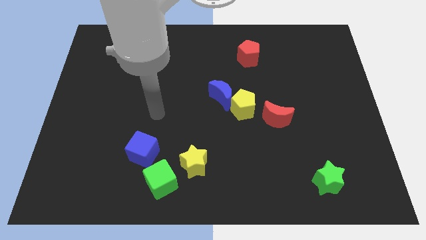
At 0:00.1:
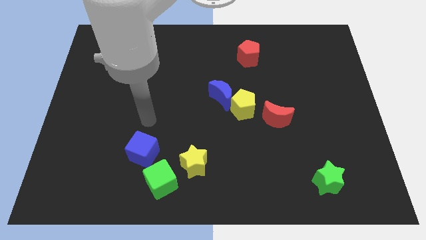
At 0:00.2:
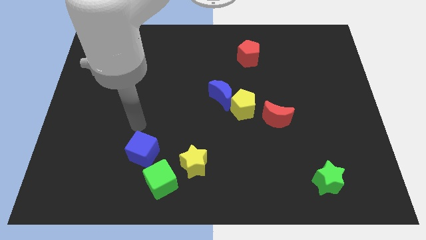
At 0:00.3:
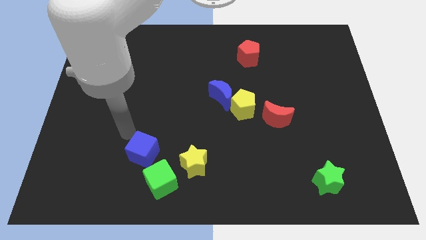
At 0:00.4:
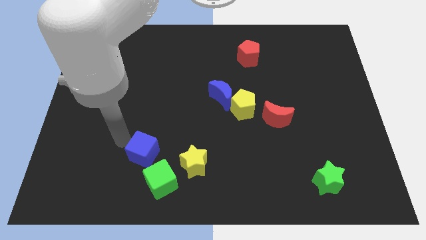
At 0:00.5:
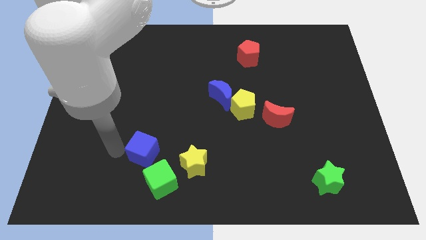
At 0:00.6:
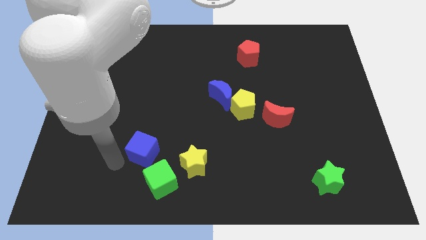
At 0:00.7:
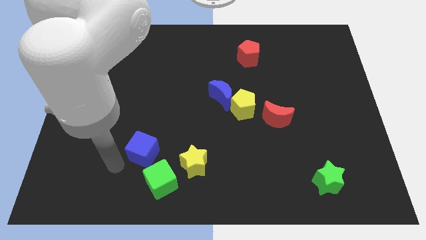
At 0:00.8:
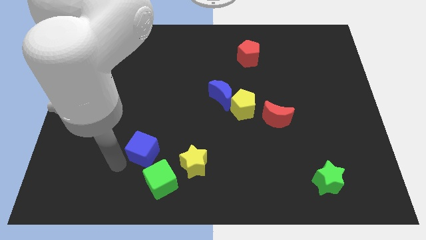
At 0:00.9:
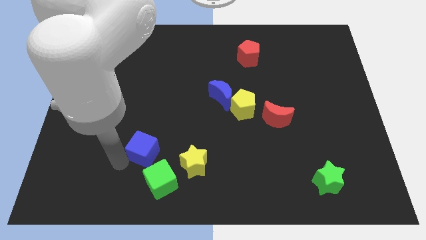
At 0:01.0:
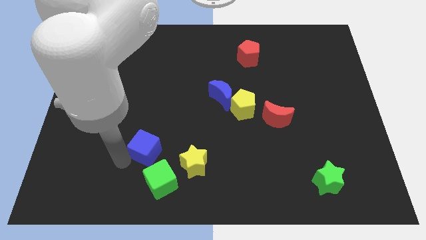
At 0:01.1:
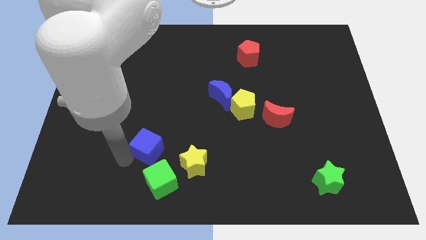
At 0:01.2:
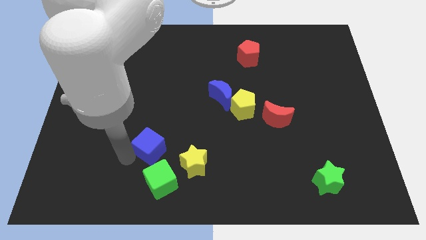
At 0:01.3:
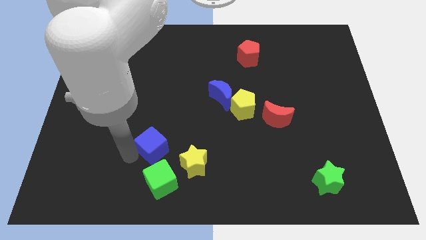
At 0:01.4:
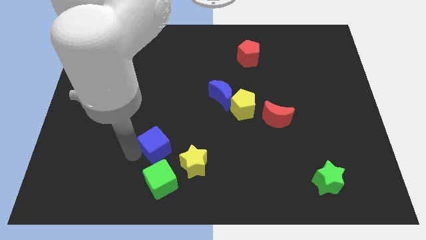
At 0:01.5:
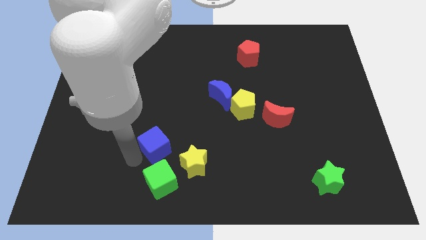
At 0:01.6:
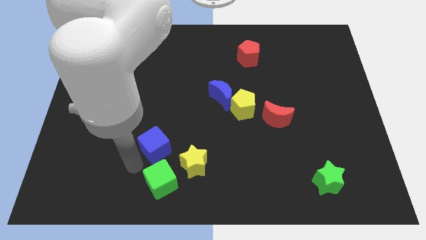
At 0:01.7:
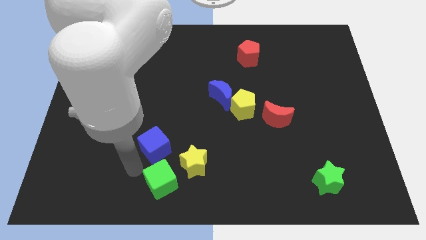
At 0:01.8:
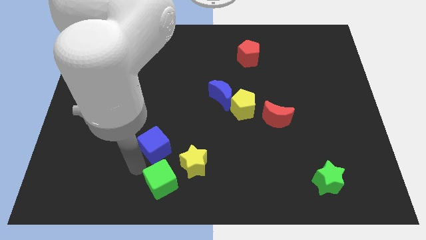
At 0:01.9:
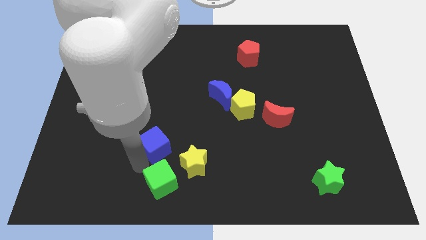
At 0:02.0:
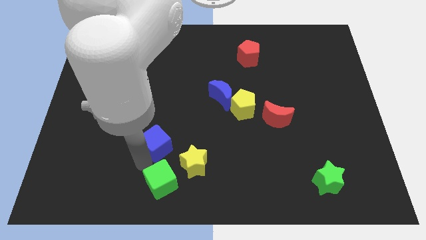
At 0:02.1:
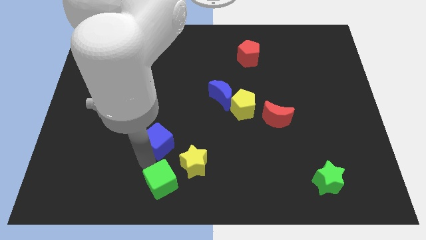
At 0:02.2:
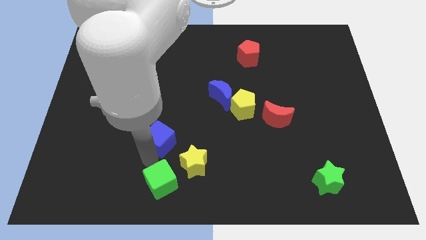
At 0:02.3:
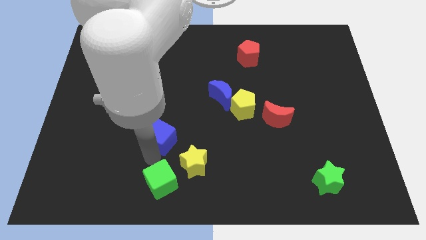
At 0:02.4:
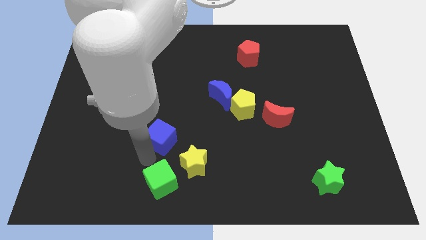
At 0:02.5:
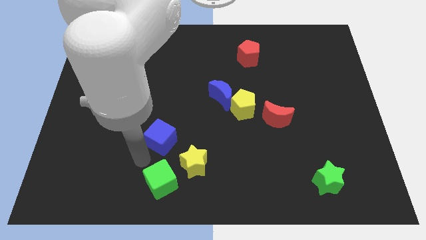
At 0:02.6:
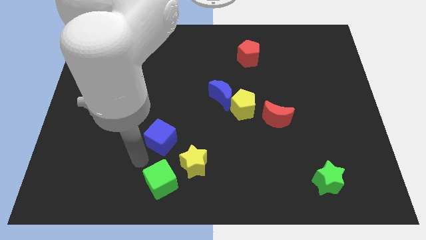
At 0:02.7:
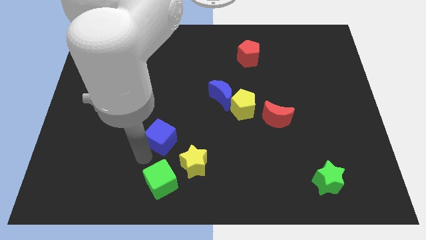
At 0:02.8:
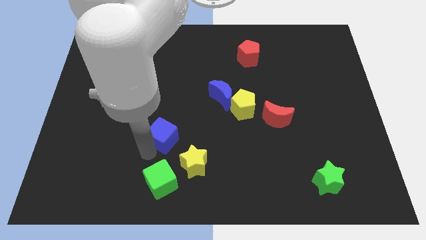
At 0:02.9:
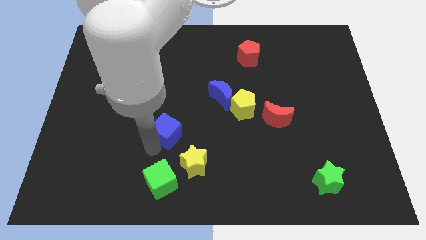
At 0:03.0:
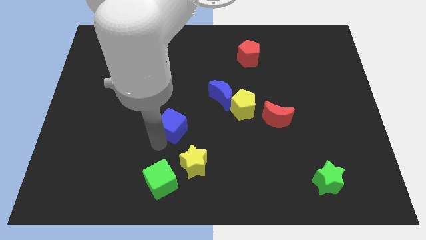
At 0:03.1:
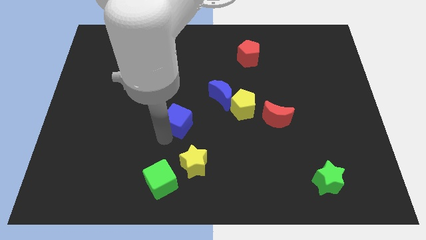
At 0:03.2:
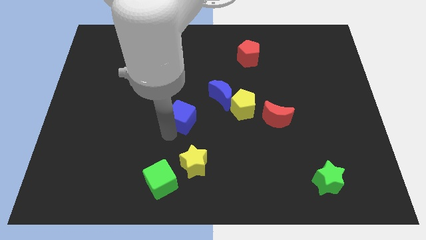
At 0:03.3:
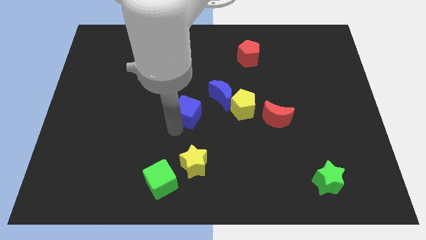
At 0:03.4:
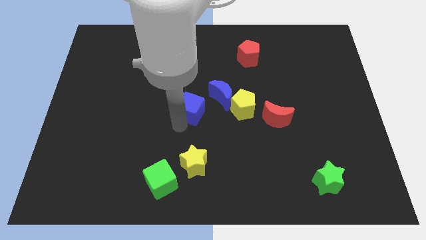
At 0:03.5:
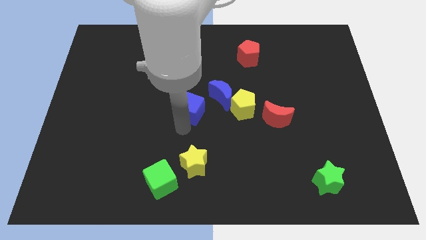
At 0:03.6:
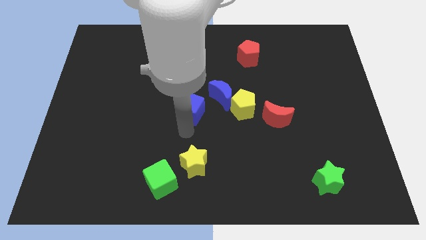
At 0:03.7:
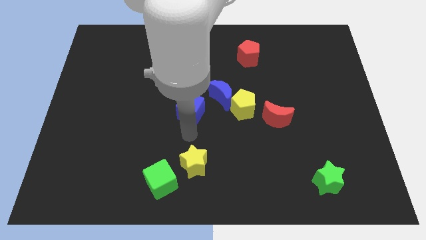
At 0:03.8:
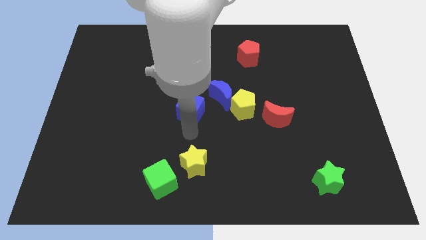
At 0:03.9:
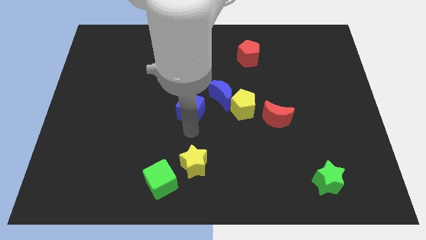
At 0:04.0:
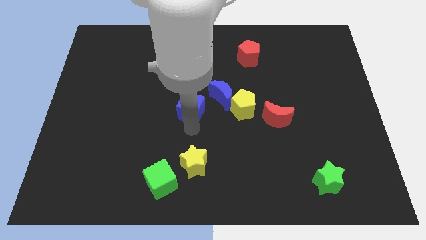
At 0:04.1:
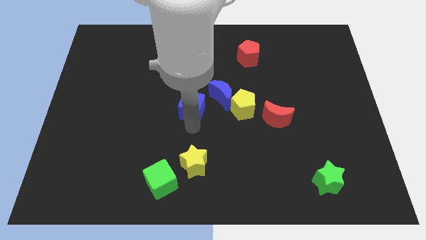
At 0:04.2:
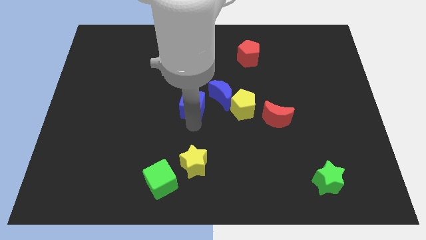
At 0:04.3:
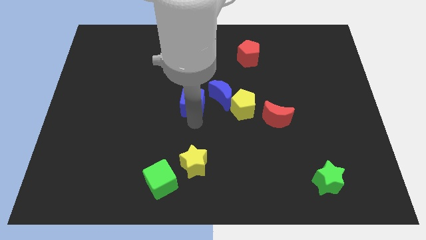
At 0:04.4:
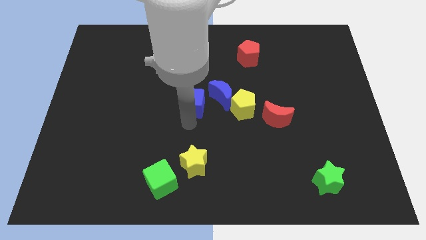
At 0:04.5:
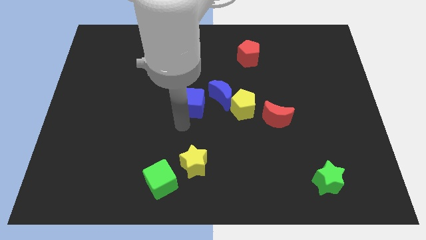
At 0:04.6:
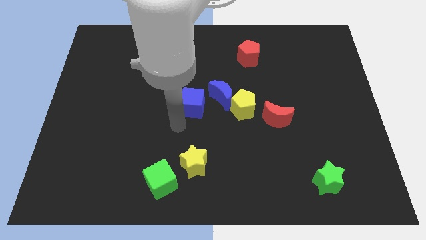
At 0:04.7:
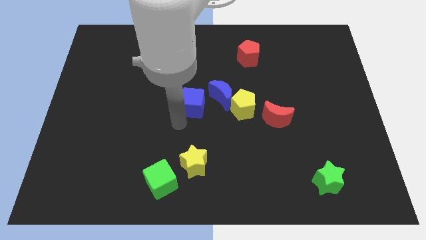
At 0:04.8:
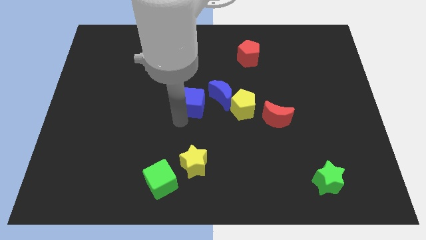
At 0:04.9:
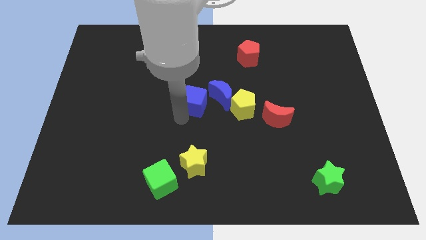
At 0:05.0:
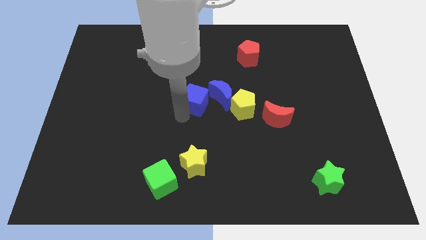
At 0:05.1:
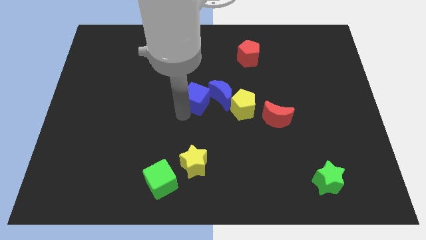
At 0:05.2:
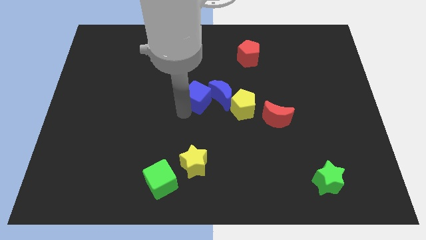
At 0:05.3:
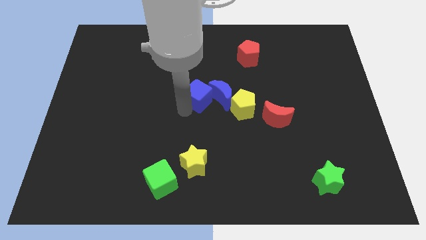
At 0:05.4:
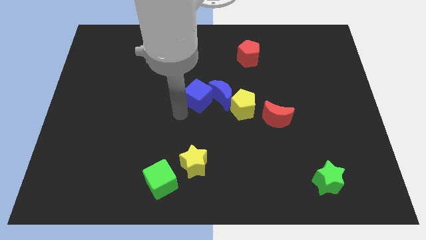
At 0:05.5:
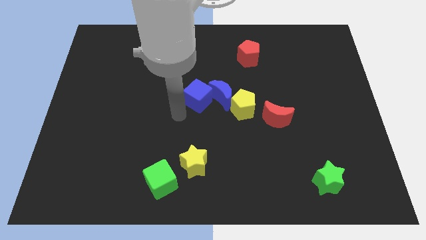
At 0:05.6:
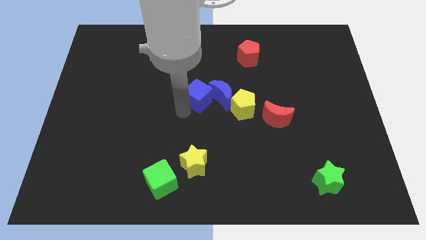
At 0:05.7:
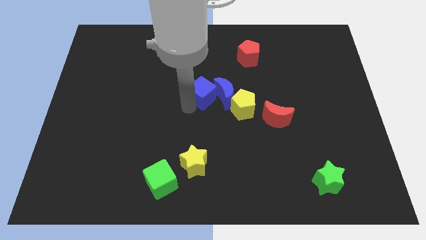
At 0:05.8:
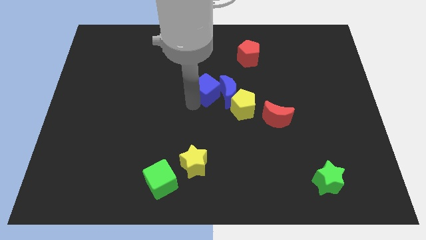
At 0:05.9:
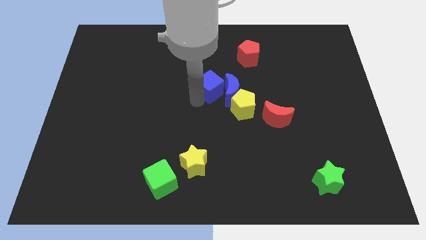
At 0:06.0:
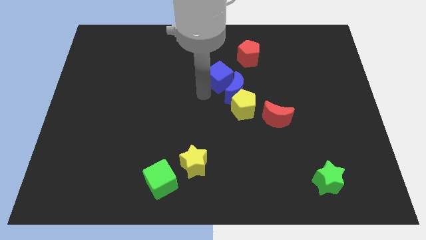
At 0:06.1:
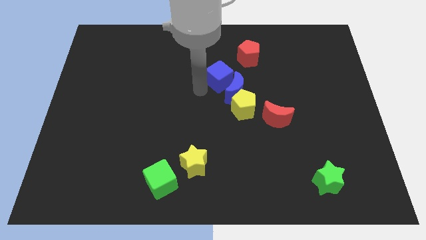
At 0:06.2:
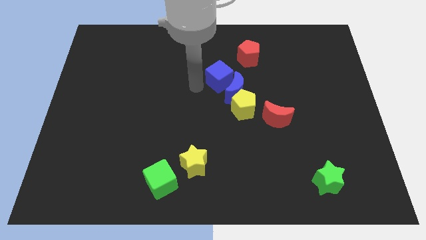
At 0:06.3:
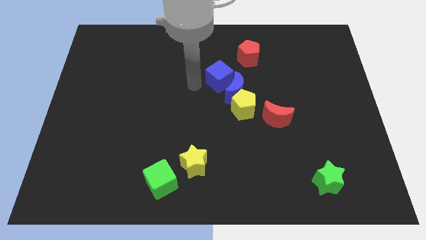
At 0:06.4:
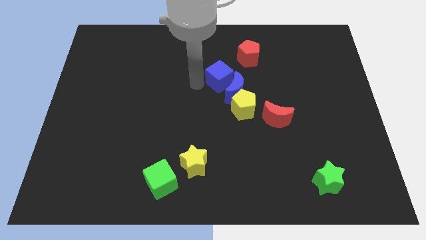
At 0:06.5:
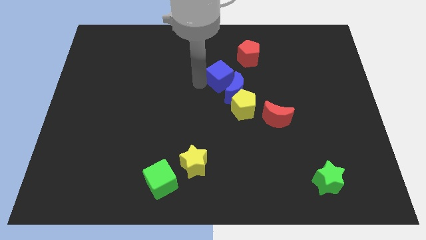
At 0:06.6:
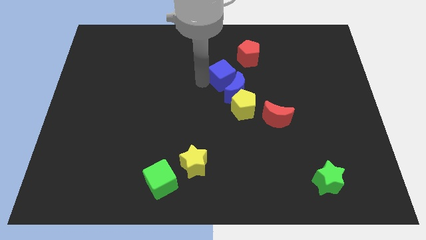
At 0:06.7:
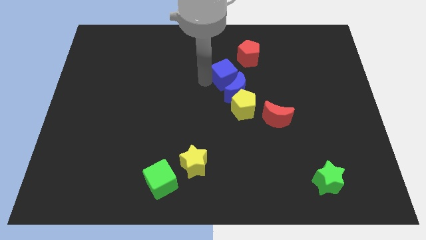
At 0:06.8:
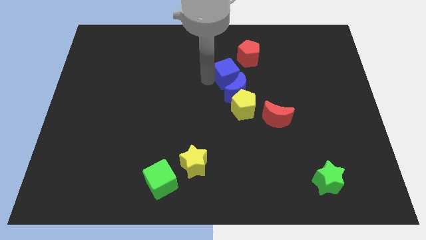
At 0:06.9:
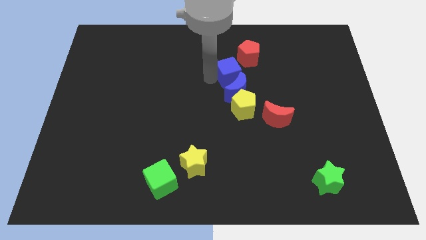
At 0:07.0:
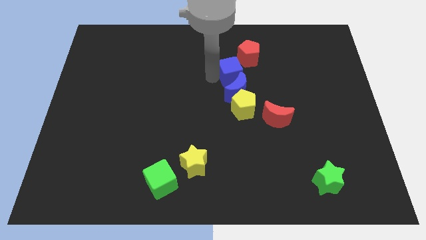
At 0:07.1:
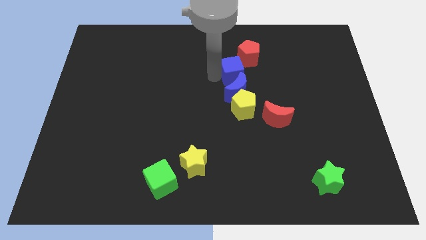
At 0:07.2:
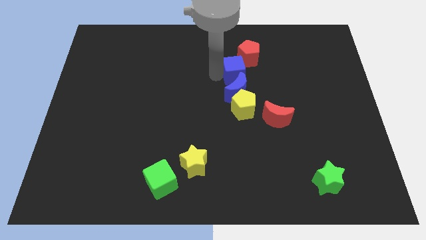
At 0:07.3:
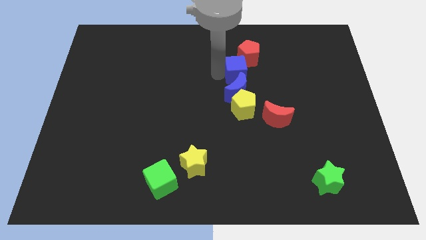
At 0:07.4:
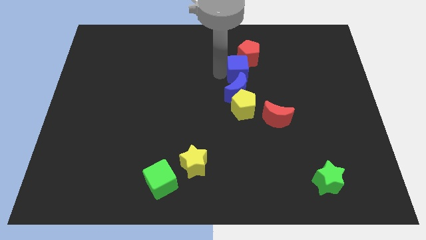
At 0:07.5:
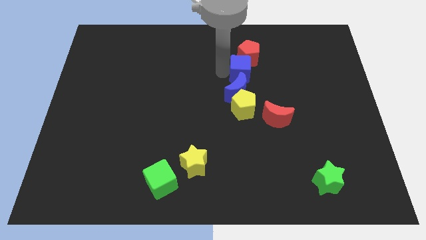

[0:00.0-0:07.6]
push the blue cube towards the red pentagon
